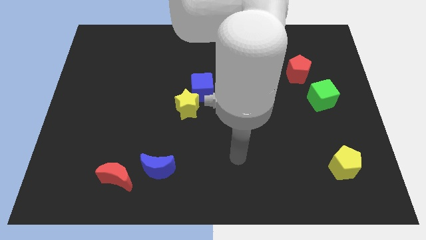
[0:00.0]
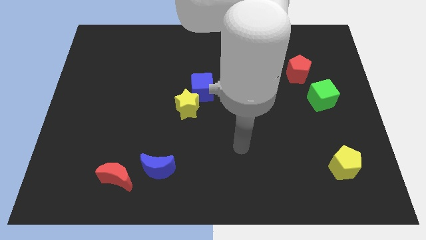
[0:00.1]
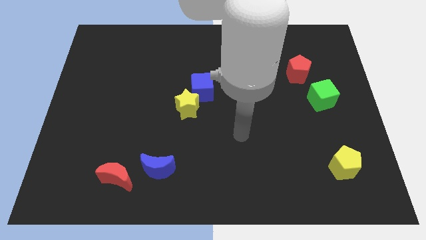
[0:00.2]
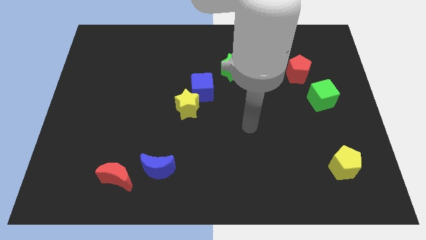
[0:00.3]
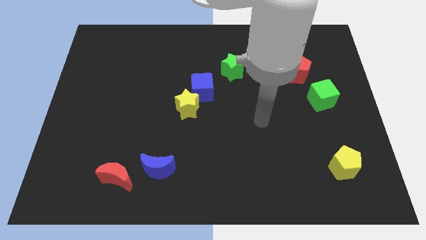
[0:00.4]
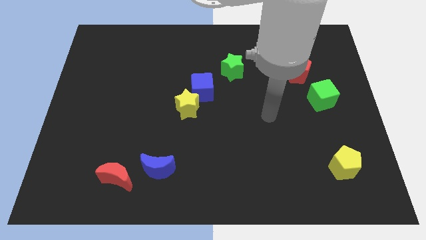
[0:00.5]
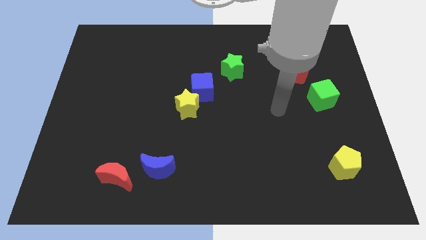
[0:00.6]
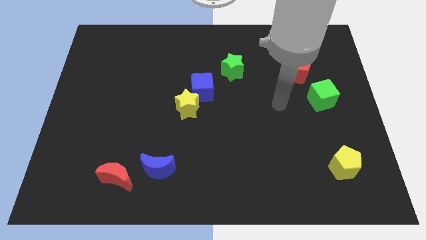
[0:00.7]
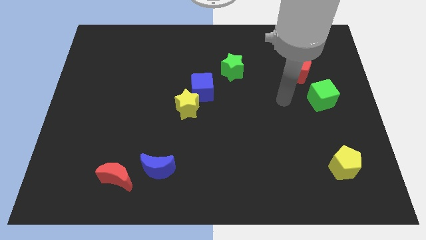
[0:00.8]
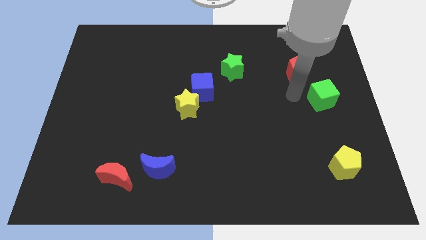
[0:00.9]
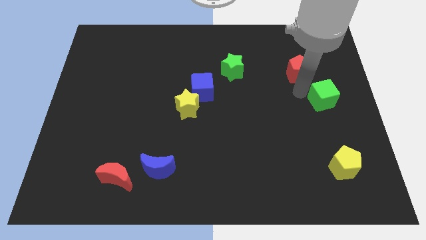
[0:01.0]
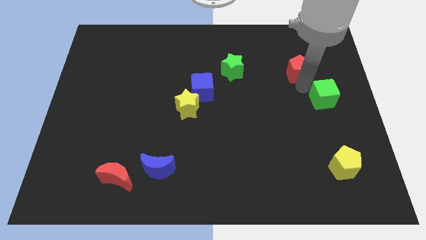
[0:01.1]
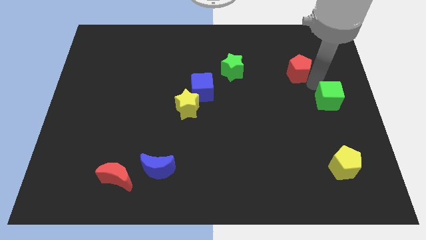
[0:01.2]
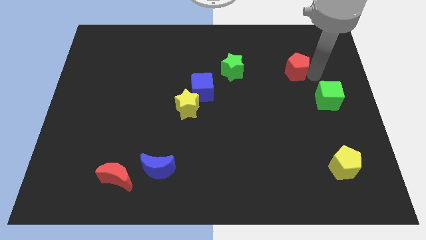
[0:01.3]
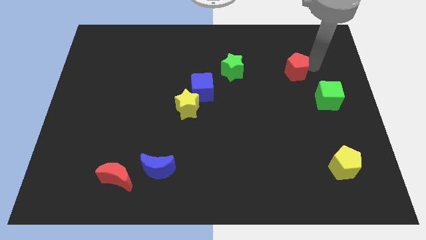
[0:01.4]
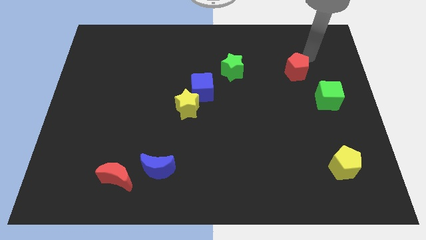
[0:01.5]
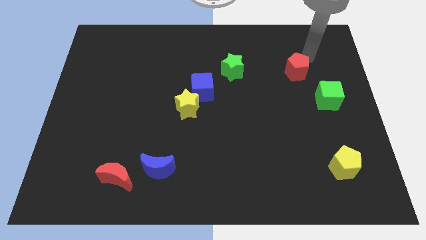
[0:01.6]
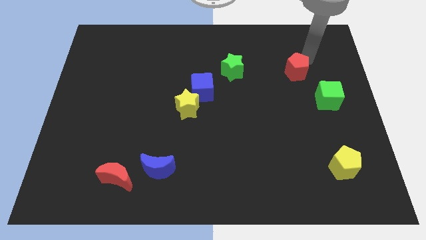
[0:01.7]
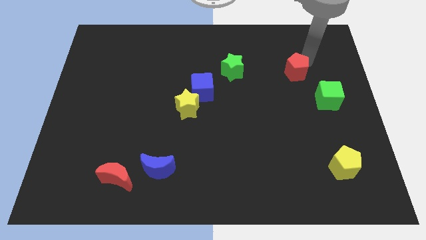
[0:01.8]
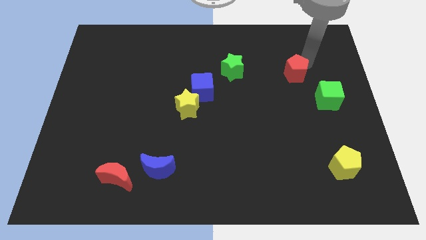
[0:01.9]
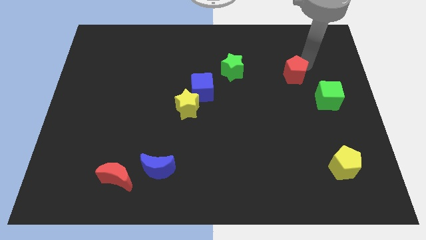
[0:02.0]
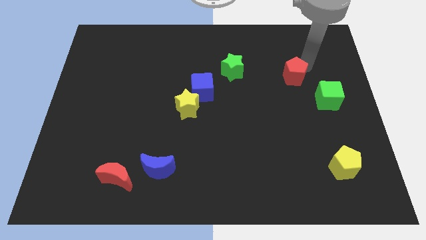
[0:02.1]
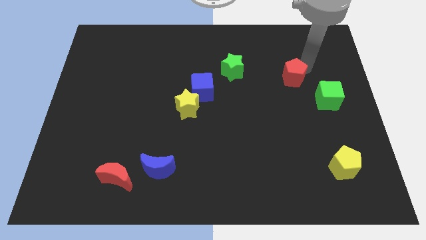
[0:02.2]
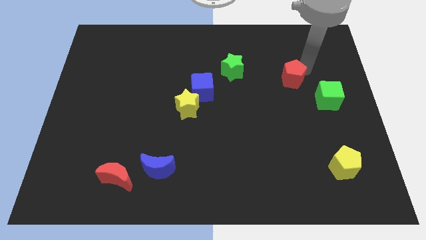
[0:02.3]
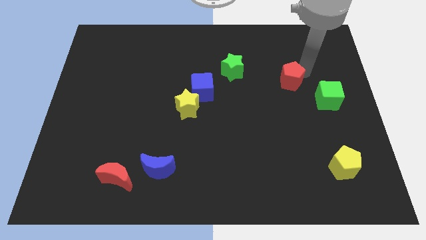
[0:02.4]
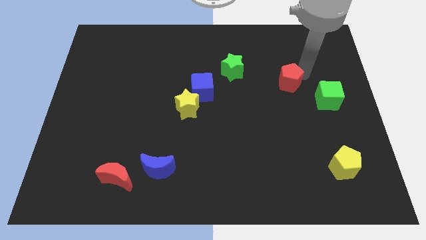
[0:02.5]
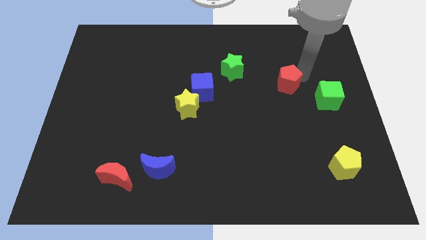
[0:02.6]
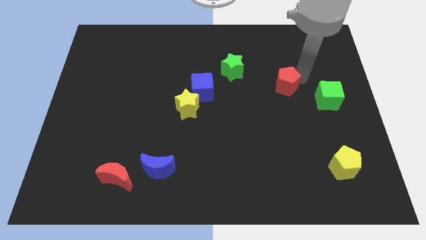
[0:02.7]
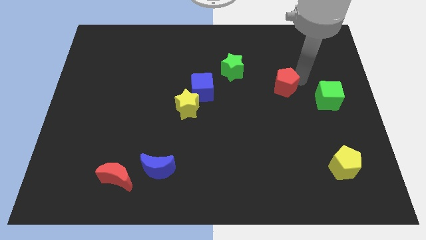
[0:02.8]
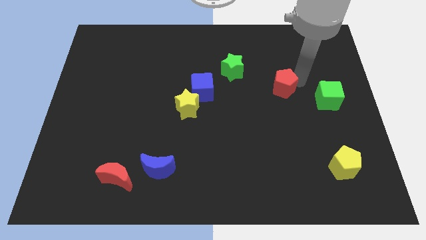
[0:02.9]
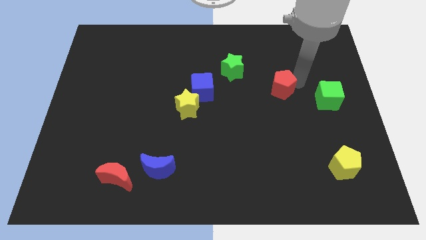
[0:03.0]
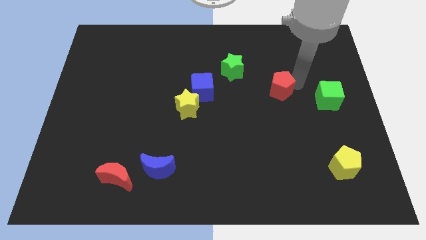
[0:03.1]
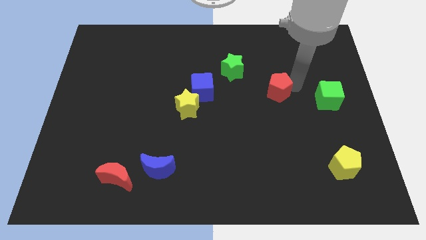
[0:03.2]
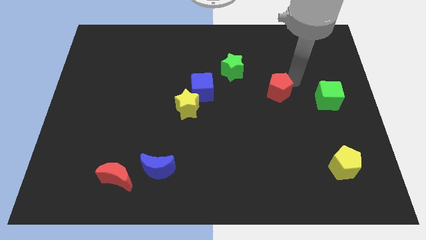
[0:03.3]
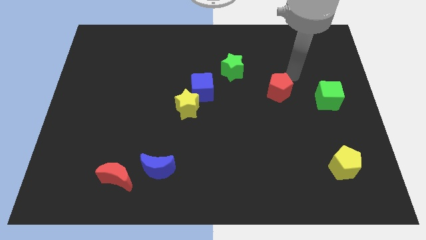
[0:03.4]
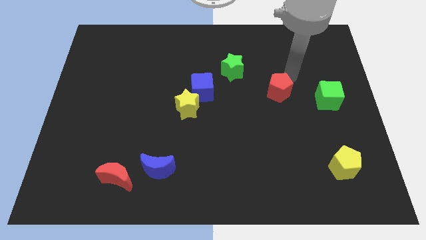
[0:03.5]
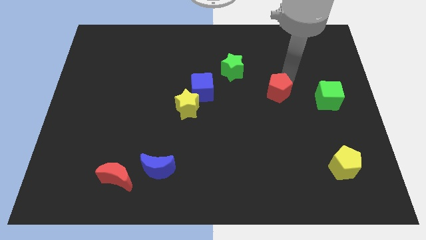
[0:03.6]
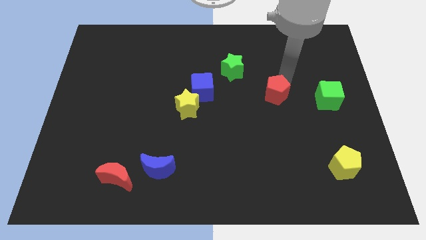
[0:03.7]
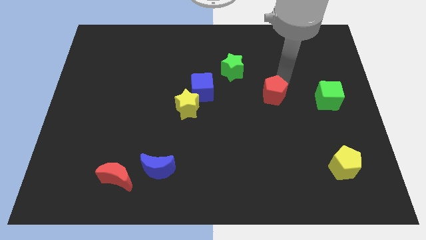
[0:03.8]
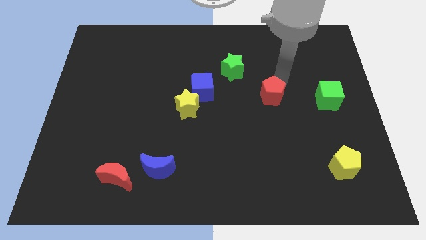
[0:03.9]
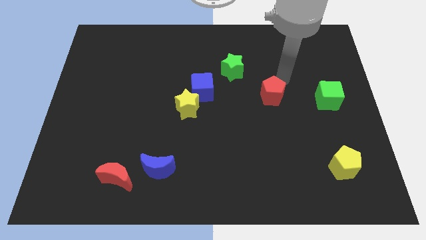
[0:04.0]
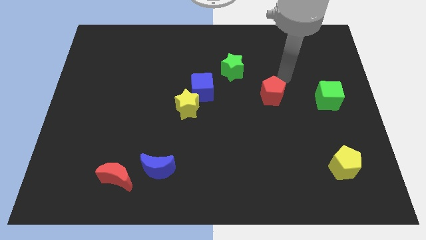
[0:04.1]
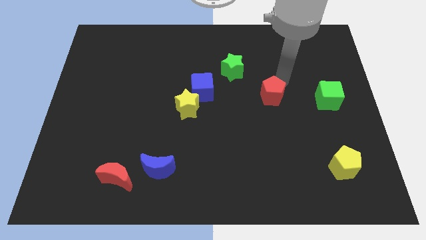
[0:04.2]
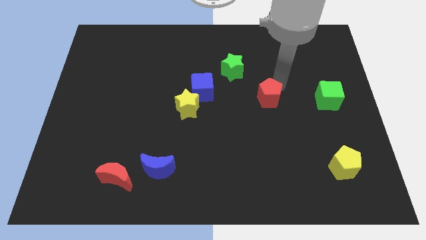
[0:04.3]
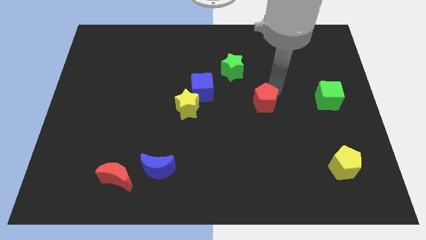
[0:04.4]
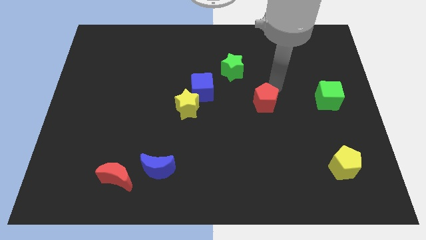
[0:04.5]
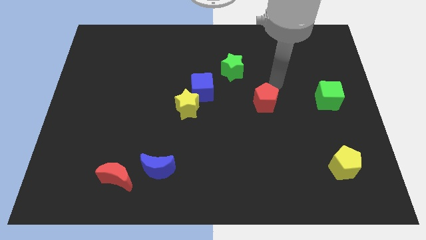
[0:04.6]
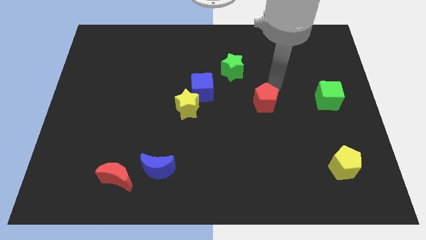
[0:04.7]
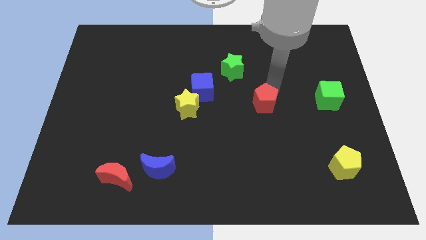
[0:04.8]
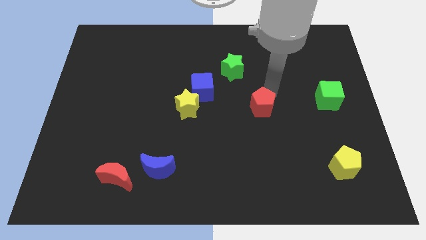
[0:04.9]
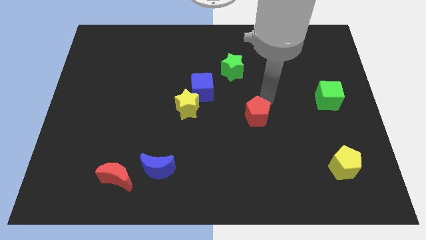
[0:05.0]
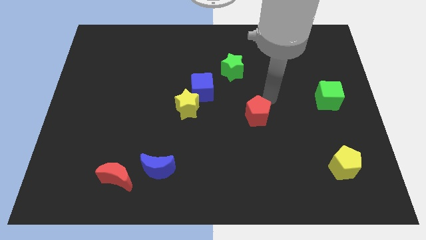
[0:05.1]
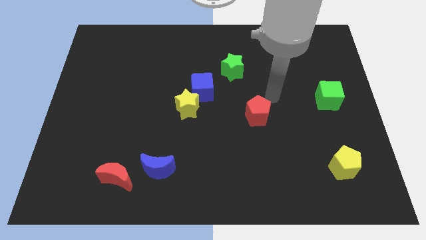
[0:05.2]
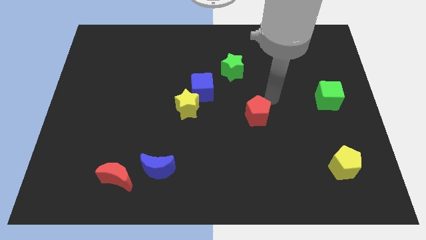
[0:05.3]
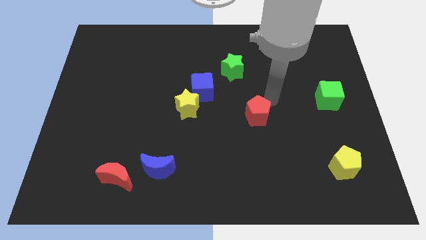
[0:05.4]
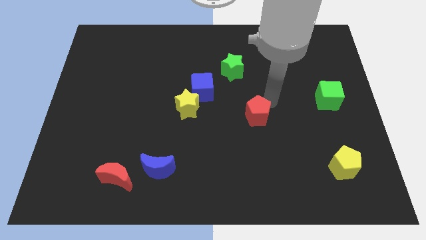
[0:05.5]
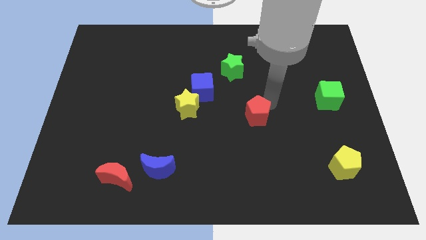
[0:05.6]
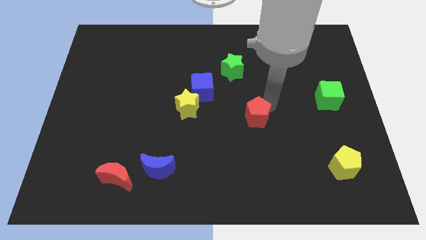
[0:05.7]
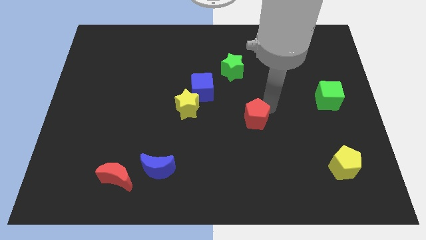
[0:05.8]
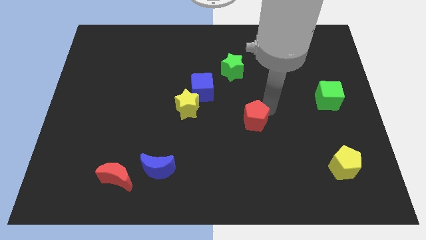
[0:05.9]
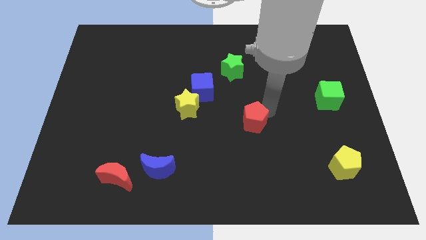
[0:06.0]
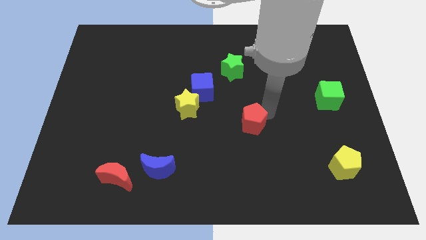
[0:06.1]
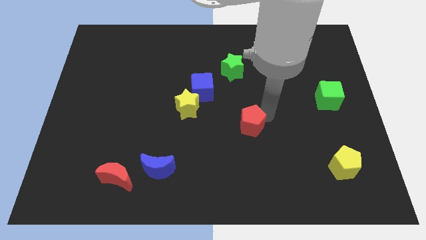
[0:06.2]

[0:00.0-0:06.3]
push the red pentagon diagonally down and left

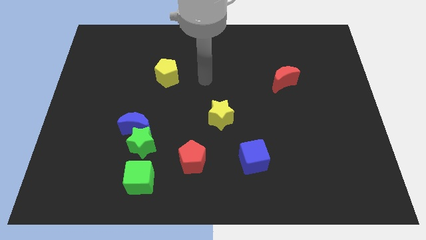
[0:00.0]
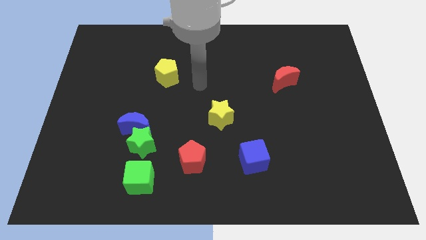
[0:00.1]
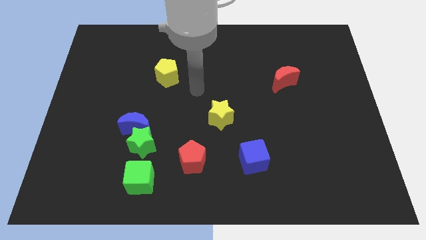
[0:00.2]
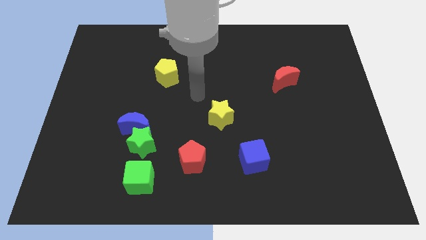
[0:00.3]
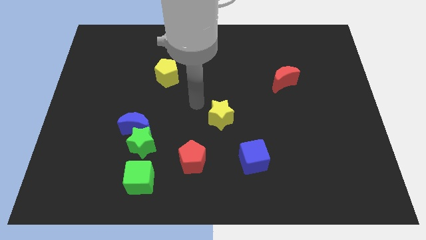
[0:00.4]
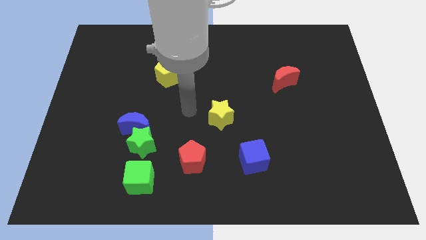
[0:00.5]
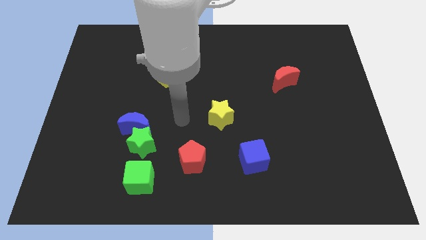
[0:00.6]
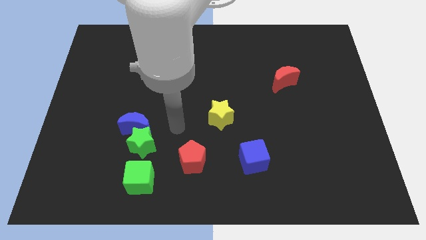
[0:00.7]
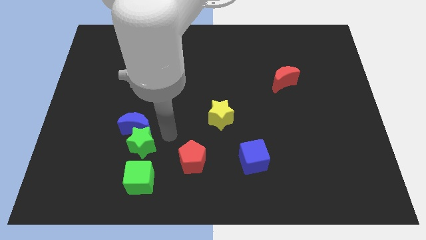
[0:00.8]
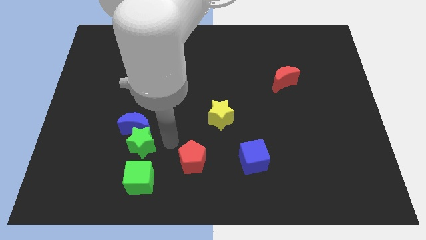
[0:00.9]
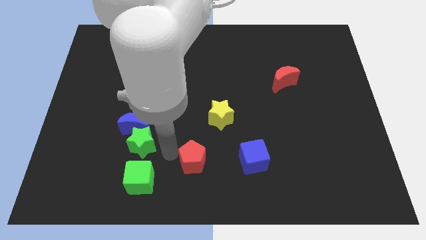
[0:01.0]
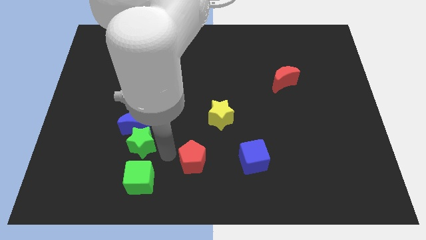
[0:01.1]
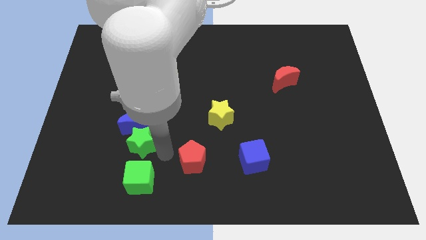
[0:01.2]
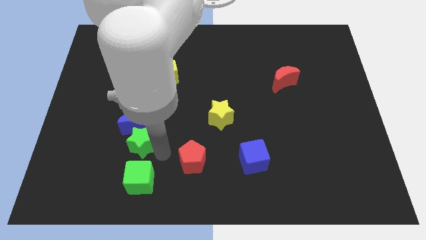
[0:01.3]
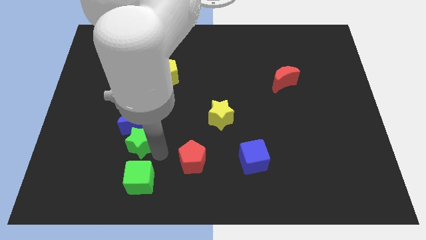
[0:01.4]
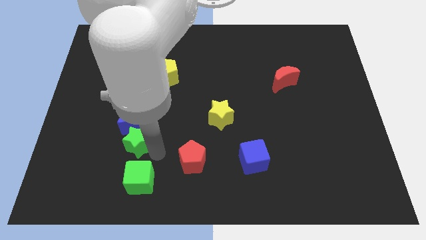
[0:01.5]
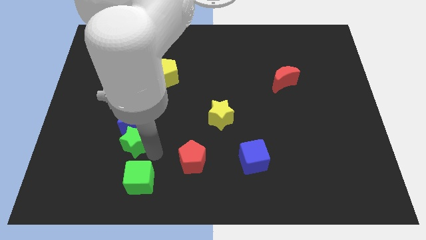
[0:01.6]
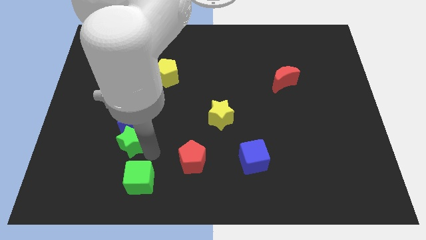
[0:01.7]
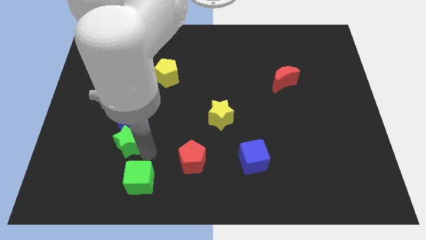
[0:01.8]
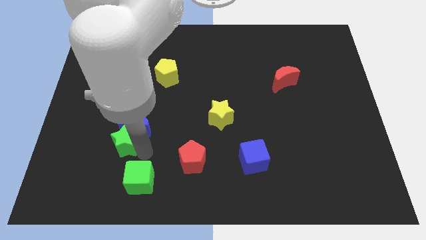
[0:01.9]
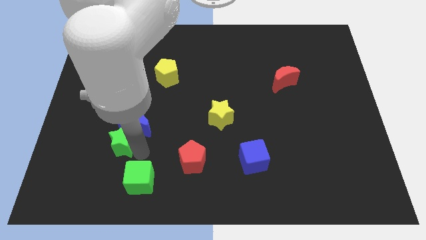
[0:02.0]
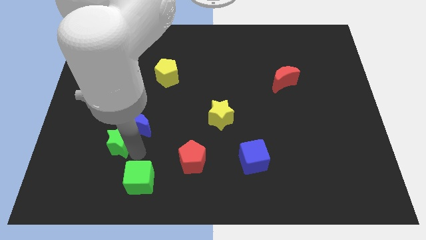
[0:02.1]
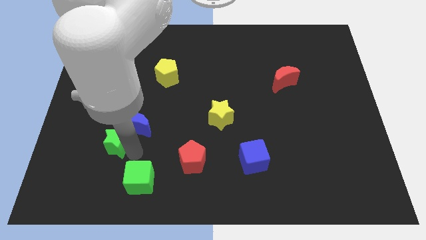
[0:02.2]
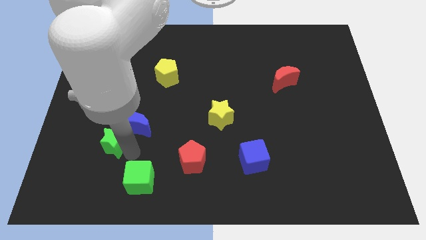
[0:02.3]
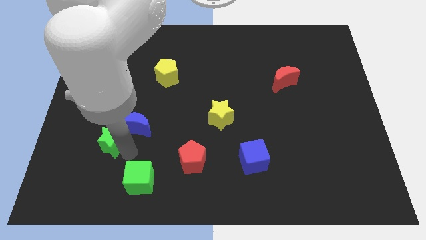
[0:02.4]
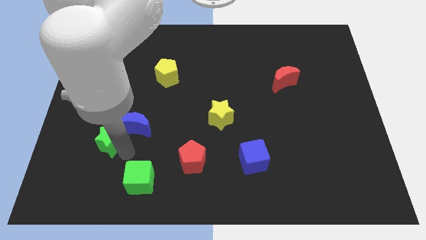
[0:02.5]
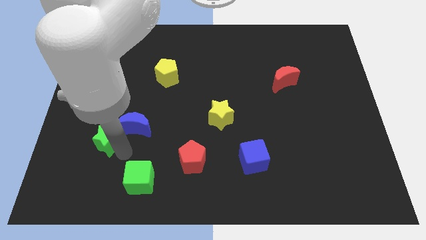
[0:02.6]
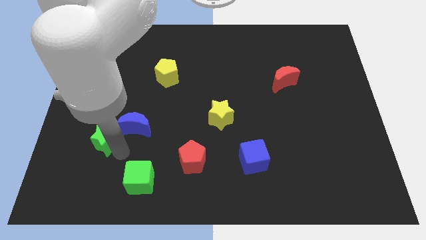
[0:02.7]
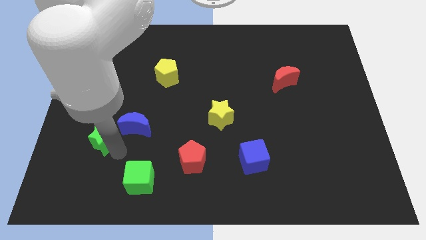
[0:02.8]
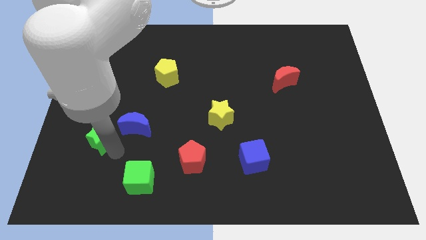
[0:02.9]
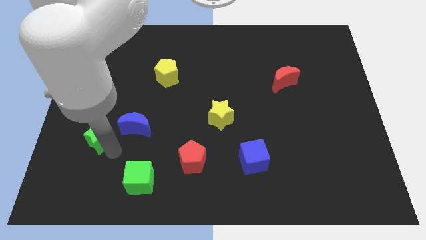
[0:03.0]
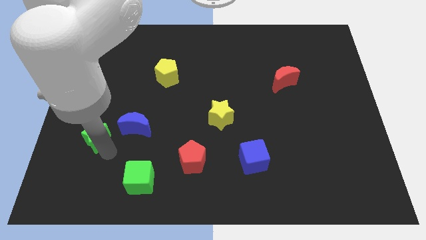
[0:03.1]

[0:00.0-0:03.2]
slightly push the green star upwards and then left
